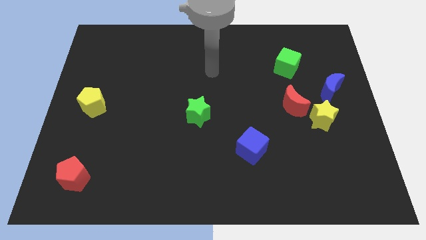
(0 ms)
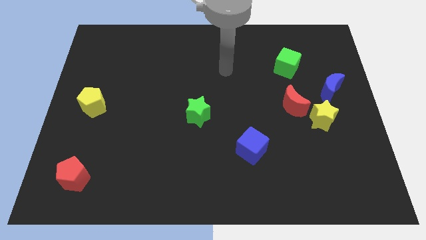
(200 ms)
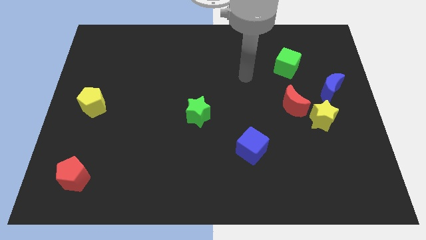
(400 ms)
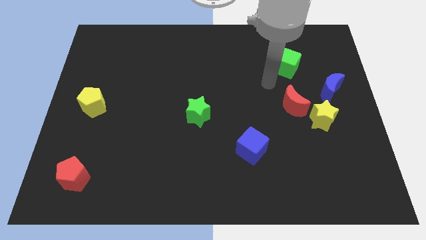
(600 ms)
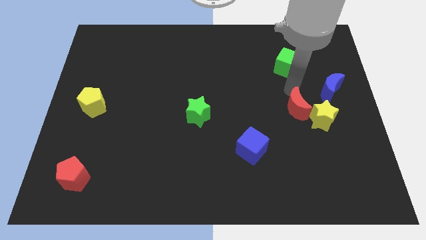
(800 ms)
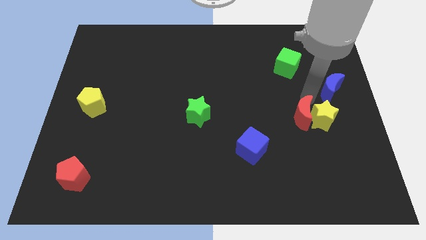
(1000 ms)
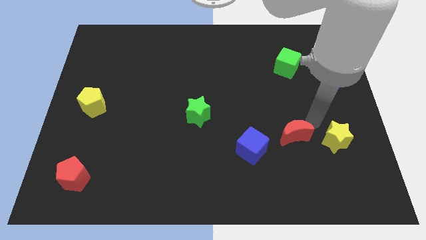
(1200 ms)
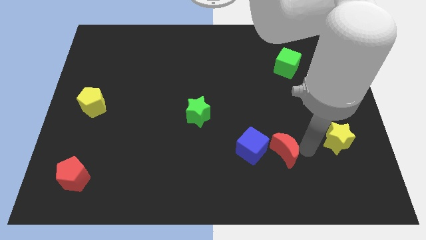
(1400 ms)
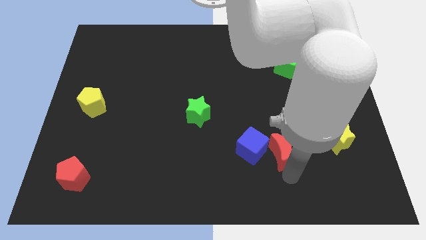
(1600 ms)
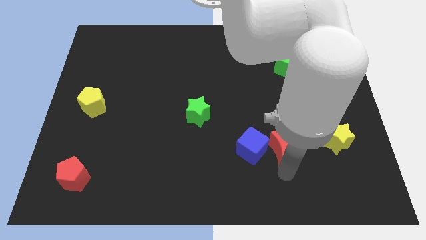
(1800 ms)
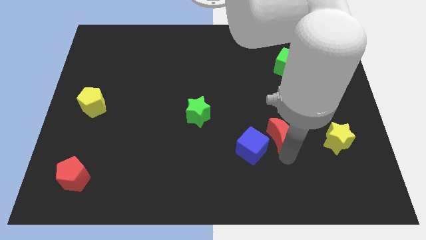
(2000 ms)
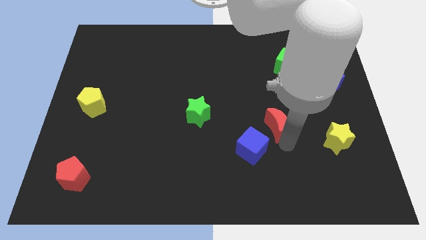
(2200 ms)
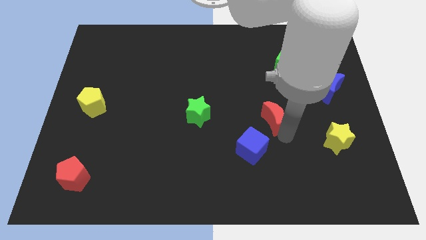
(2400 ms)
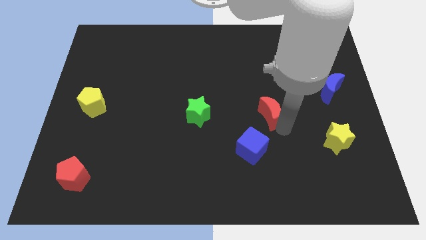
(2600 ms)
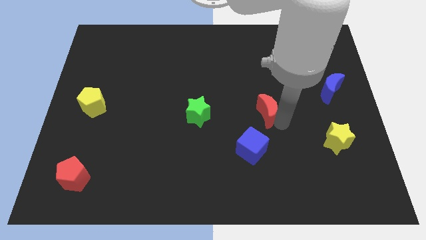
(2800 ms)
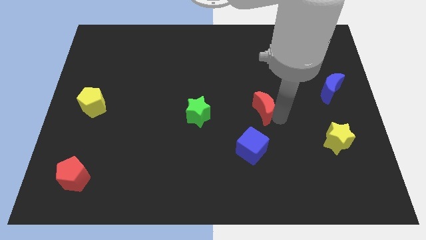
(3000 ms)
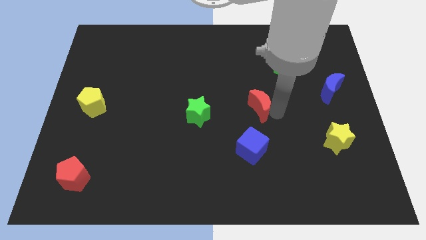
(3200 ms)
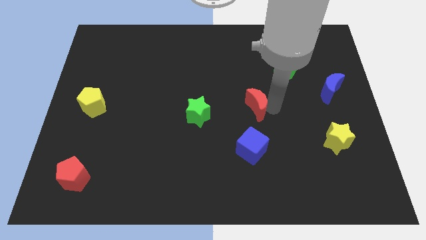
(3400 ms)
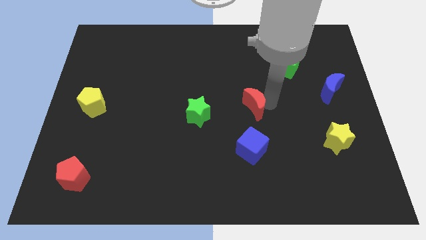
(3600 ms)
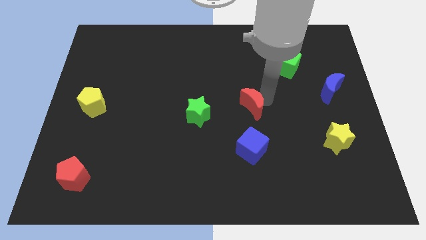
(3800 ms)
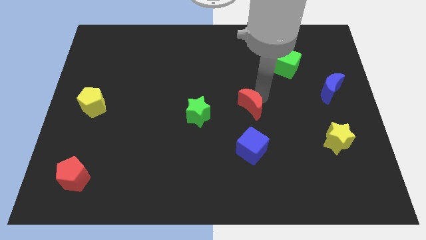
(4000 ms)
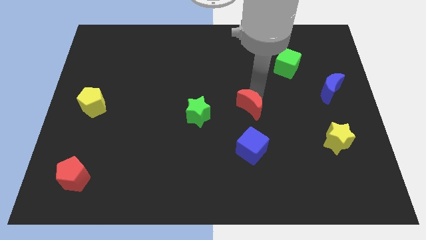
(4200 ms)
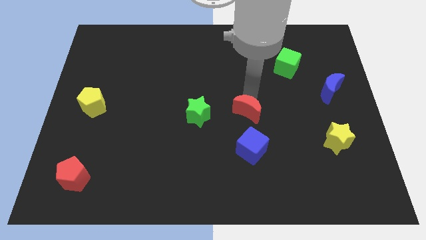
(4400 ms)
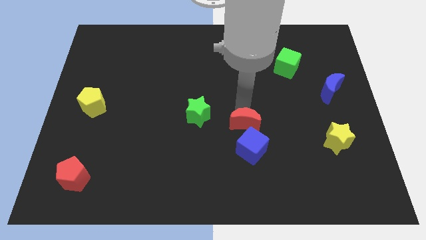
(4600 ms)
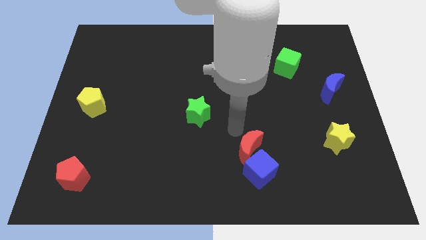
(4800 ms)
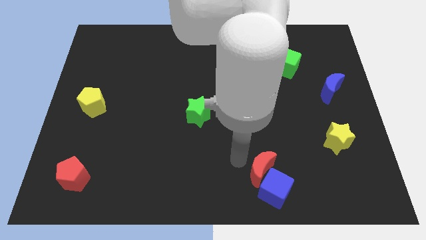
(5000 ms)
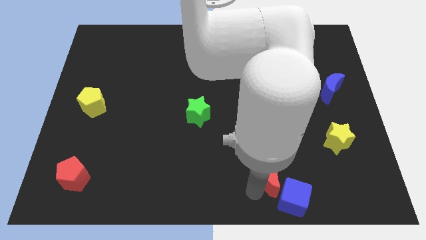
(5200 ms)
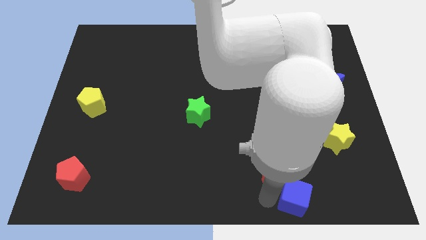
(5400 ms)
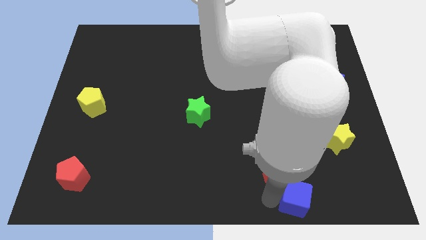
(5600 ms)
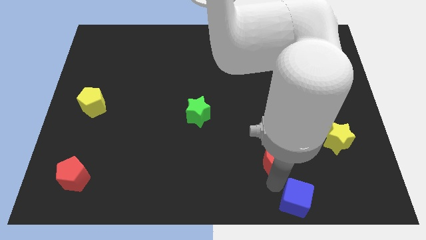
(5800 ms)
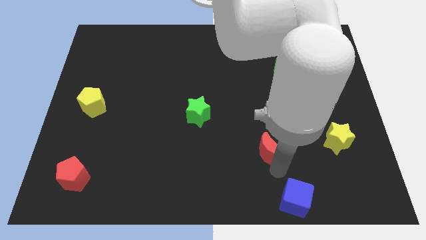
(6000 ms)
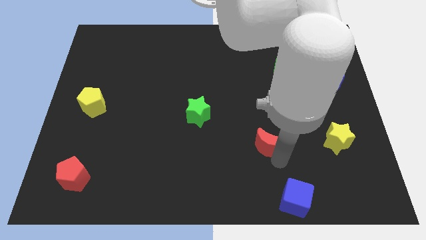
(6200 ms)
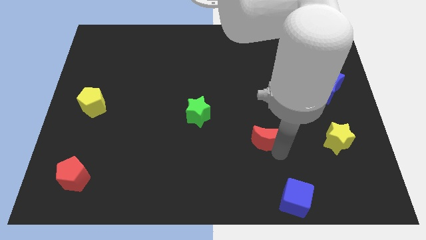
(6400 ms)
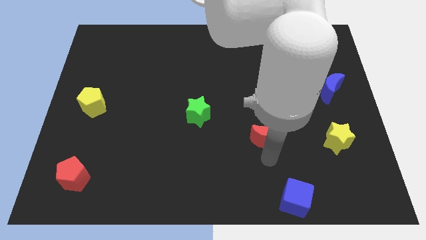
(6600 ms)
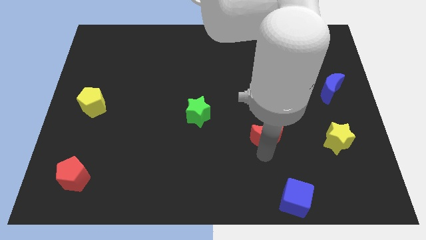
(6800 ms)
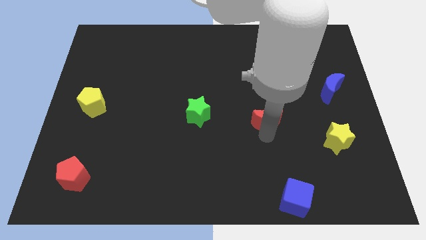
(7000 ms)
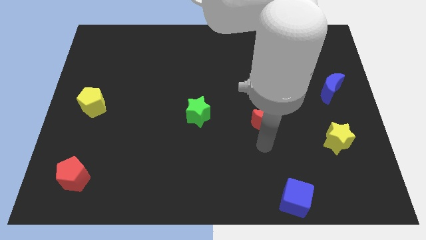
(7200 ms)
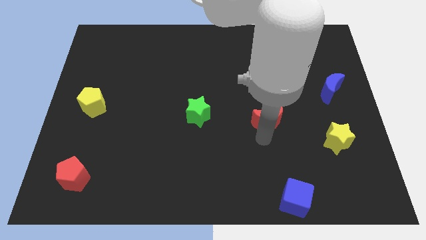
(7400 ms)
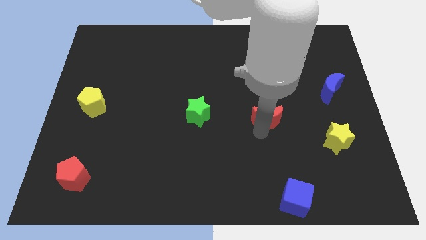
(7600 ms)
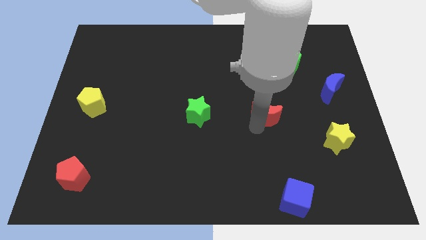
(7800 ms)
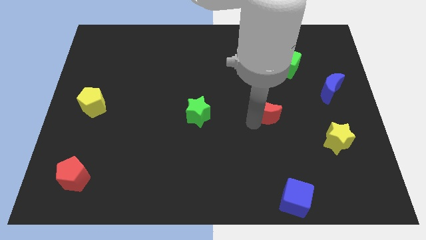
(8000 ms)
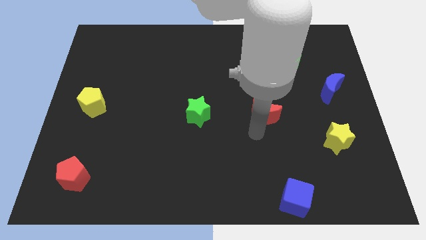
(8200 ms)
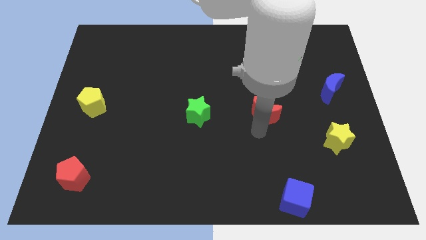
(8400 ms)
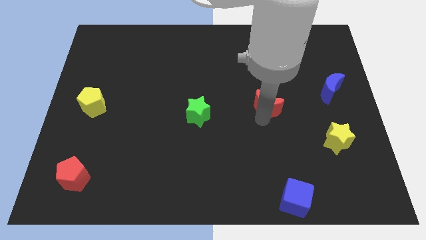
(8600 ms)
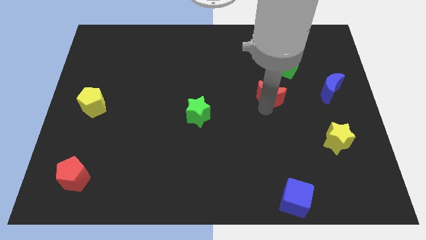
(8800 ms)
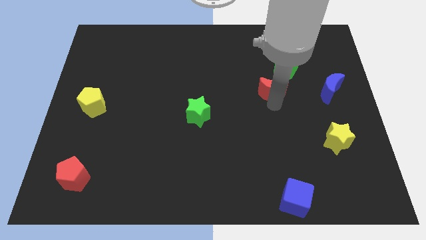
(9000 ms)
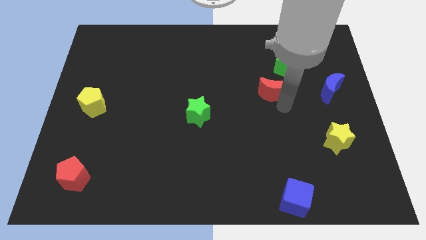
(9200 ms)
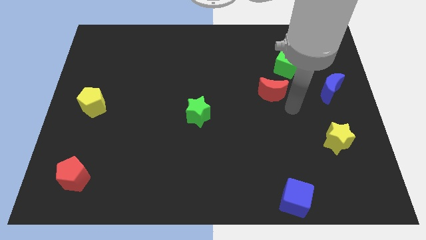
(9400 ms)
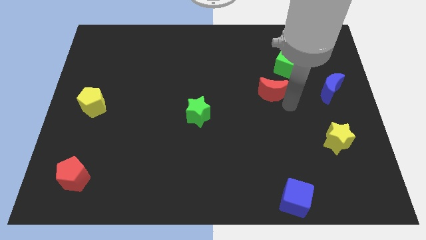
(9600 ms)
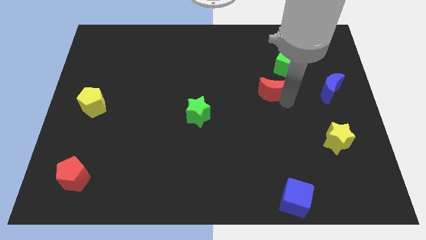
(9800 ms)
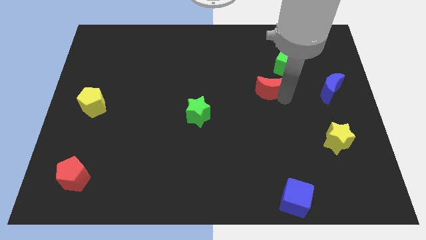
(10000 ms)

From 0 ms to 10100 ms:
push the red moon a little up and to the left diagonally

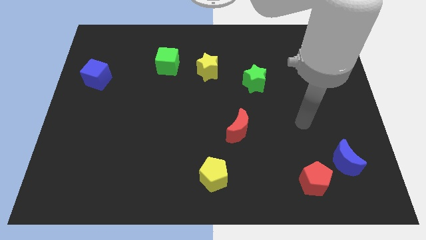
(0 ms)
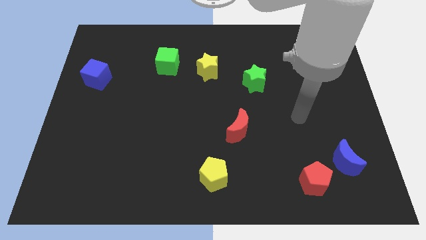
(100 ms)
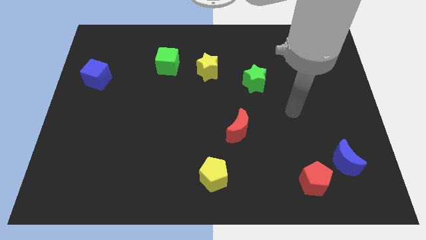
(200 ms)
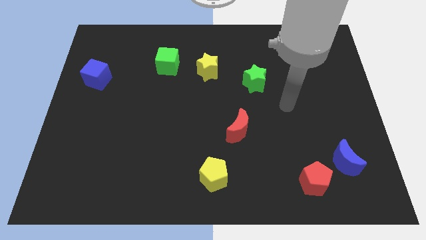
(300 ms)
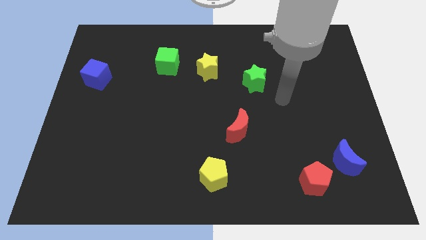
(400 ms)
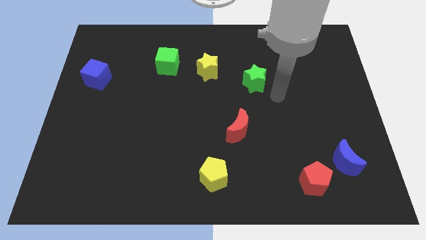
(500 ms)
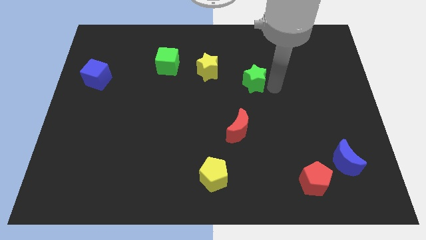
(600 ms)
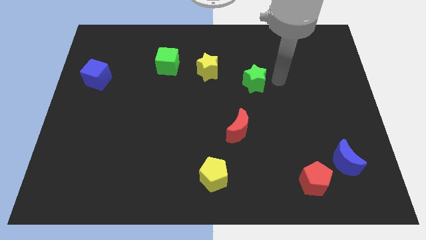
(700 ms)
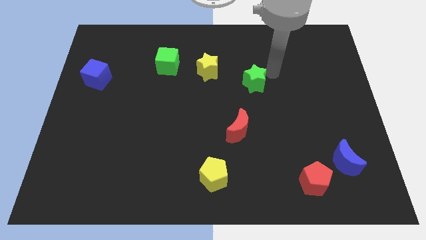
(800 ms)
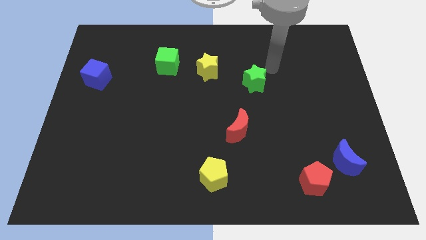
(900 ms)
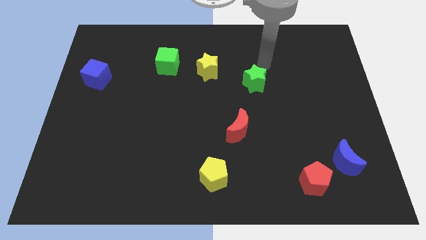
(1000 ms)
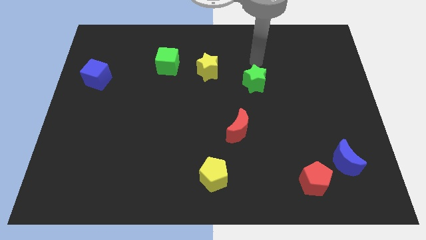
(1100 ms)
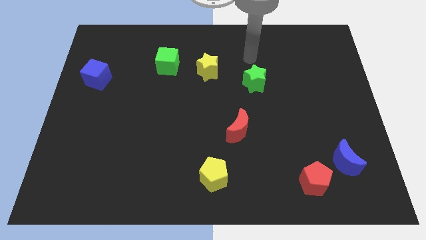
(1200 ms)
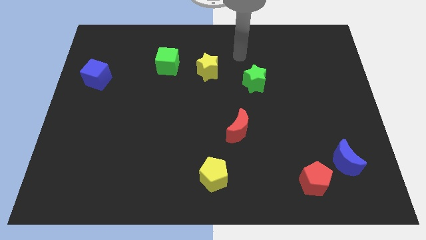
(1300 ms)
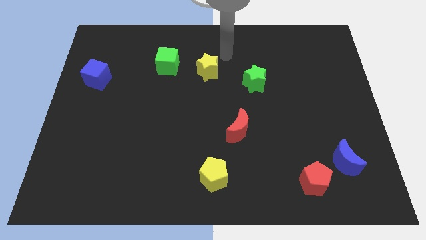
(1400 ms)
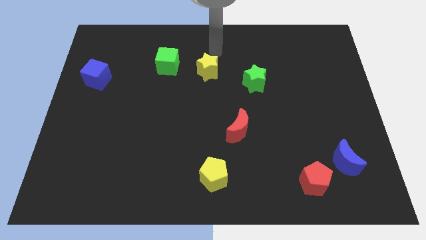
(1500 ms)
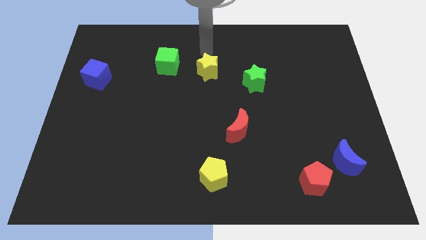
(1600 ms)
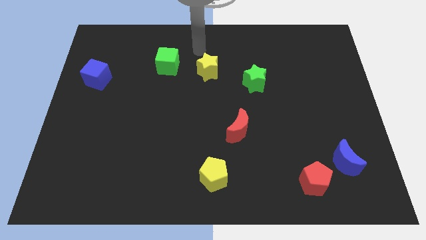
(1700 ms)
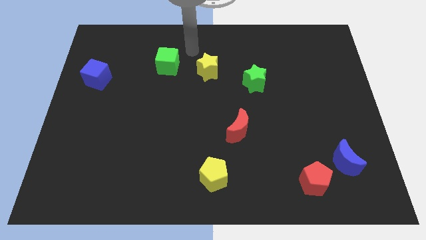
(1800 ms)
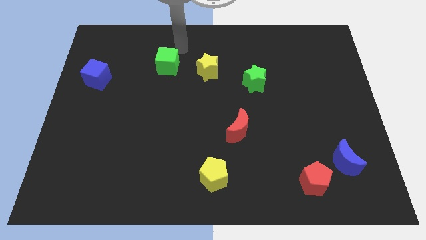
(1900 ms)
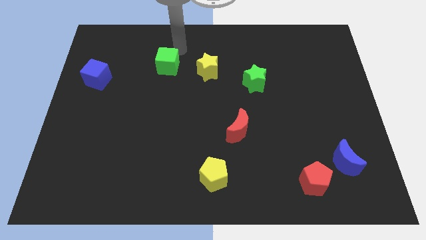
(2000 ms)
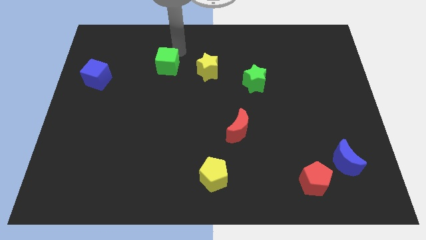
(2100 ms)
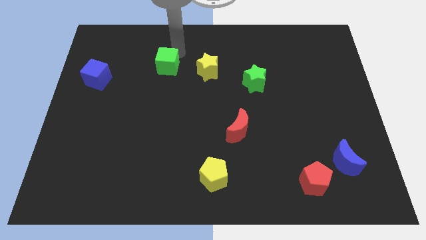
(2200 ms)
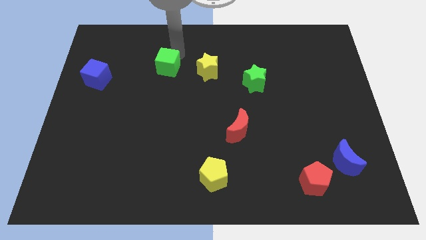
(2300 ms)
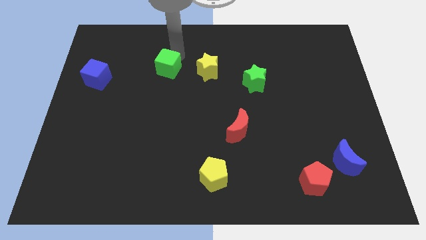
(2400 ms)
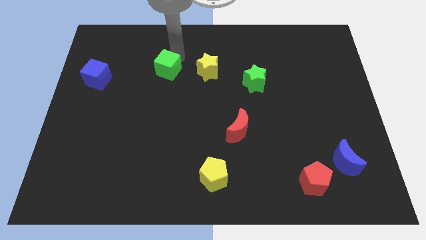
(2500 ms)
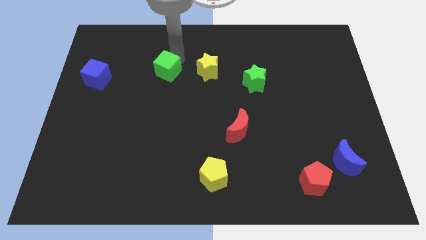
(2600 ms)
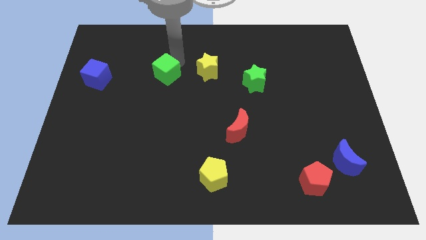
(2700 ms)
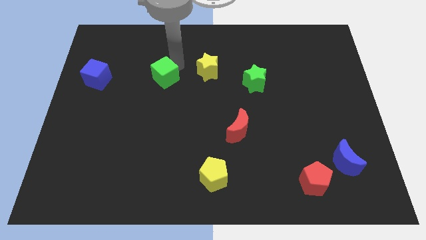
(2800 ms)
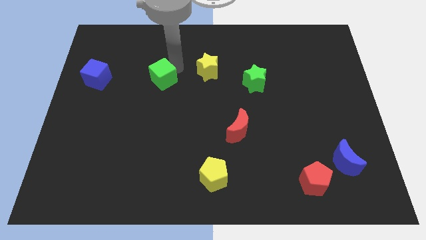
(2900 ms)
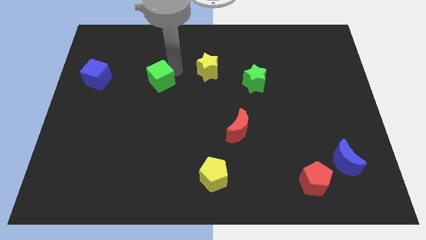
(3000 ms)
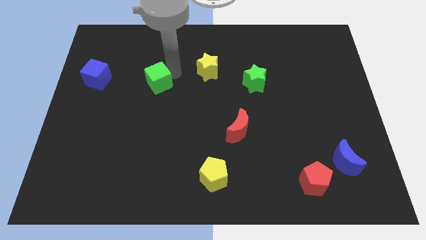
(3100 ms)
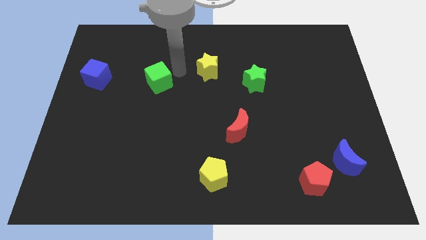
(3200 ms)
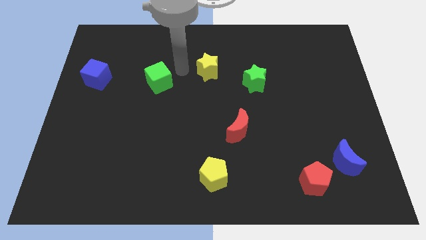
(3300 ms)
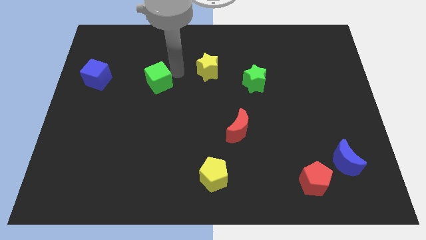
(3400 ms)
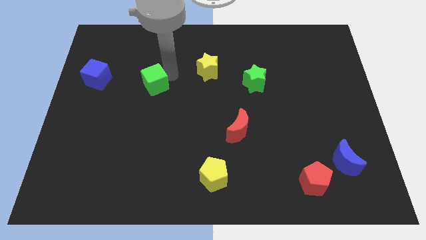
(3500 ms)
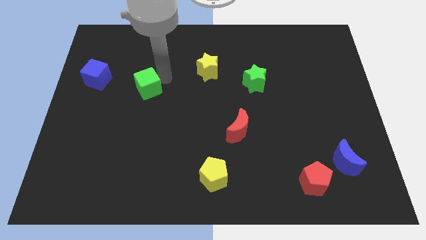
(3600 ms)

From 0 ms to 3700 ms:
slide the green cube down and to the left diagonally slightly
